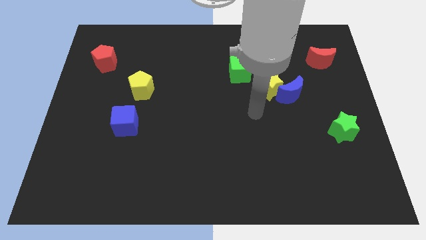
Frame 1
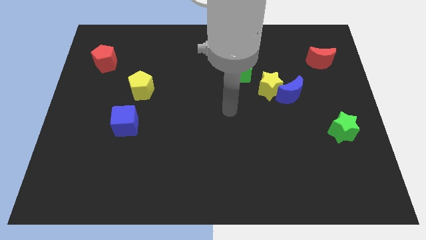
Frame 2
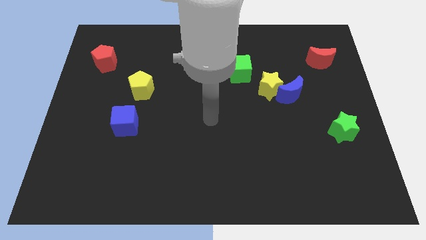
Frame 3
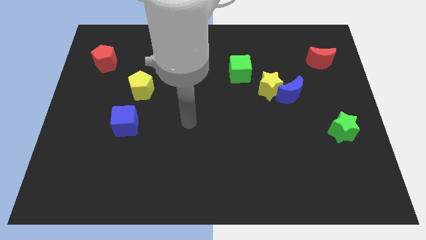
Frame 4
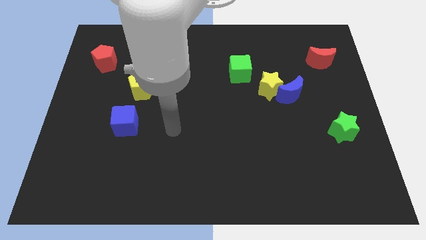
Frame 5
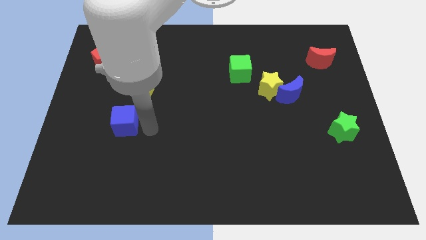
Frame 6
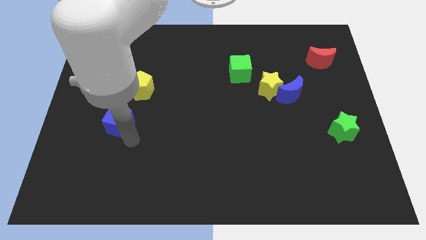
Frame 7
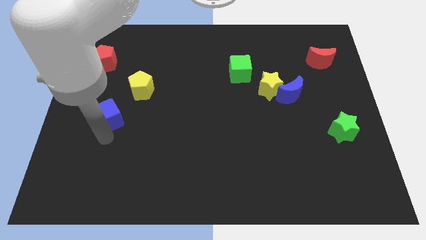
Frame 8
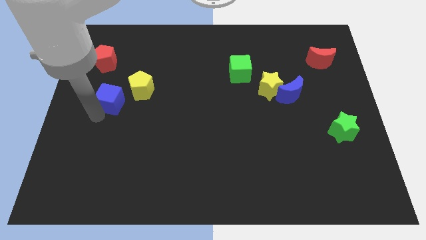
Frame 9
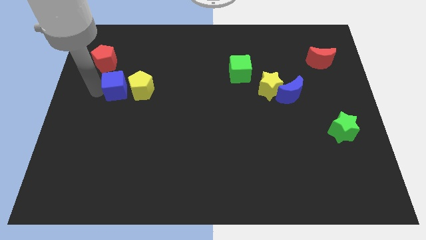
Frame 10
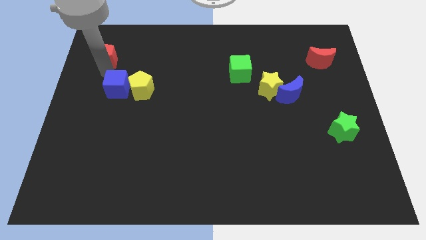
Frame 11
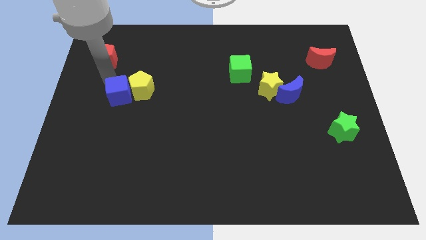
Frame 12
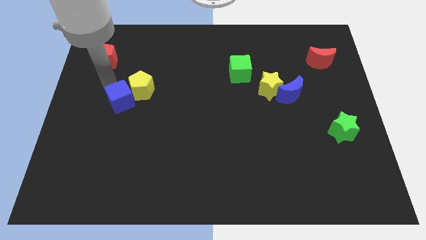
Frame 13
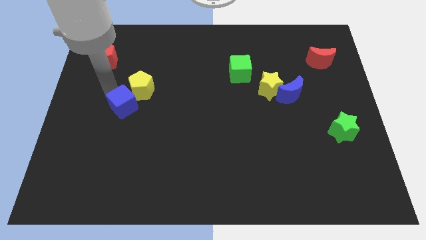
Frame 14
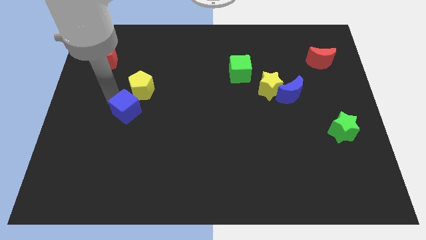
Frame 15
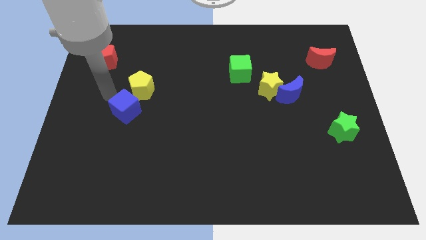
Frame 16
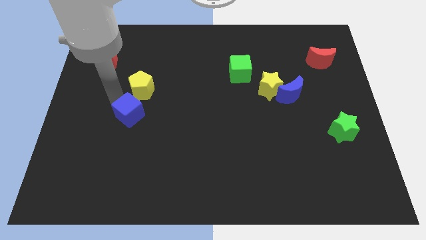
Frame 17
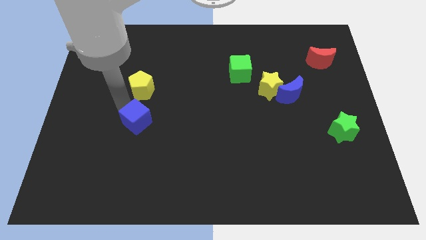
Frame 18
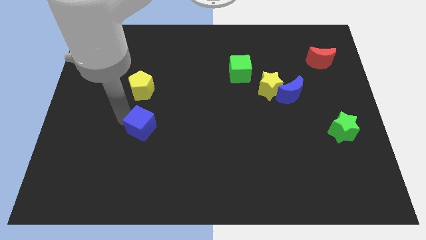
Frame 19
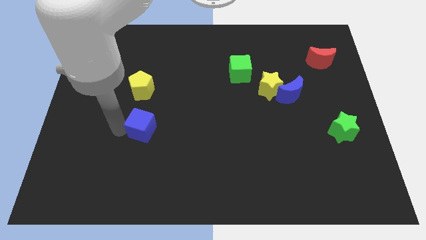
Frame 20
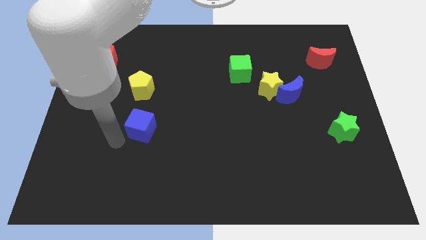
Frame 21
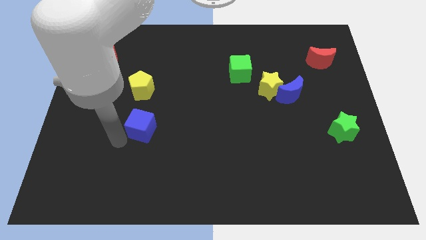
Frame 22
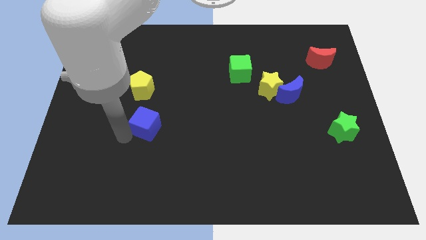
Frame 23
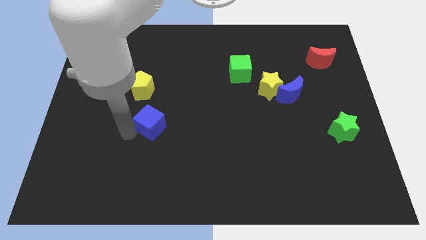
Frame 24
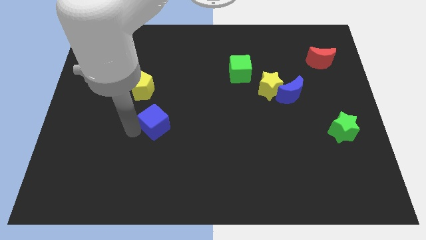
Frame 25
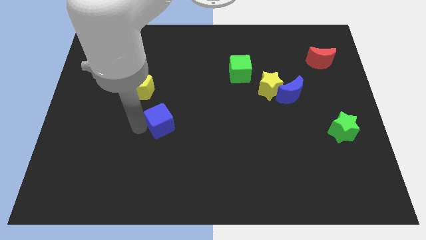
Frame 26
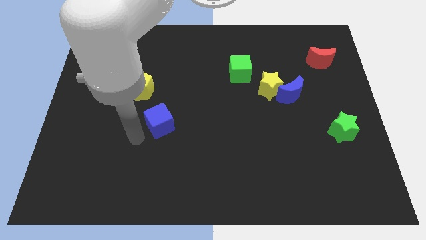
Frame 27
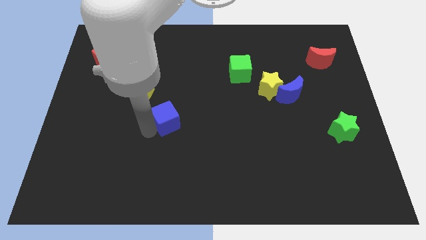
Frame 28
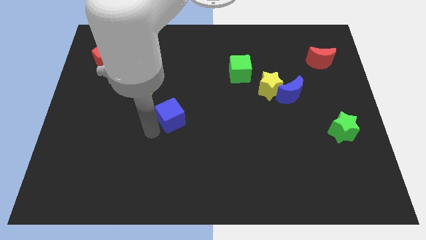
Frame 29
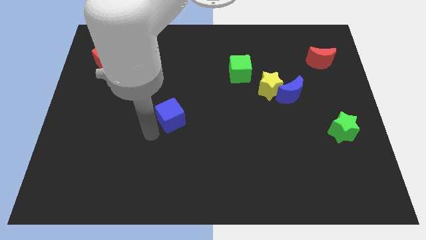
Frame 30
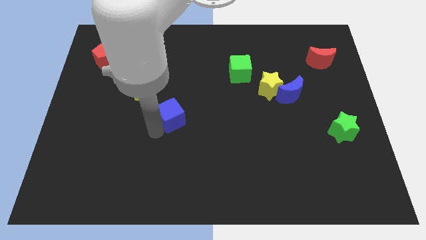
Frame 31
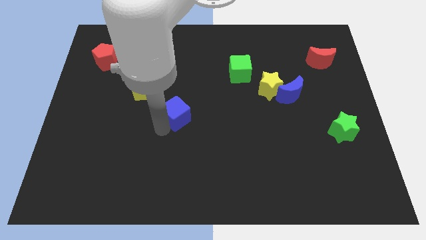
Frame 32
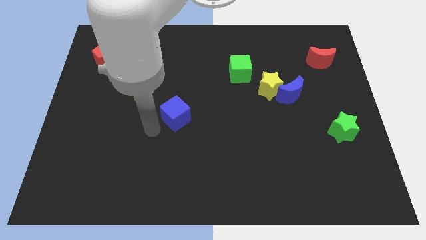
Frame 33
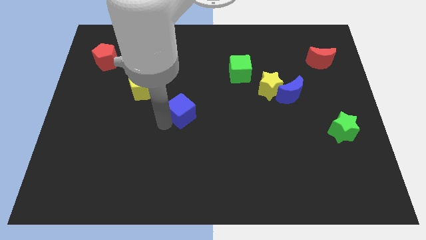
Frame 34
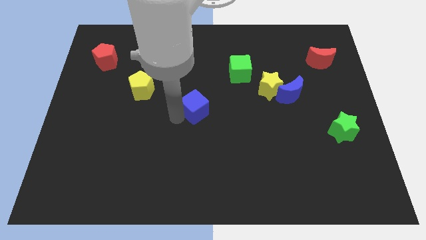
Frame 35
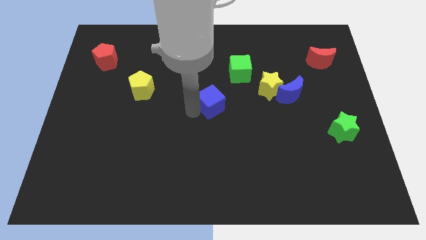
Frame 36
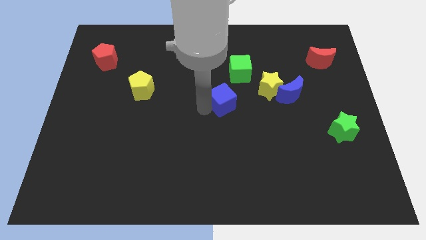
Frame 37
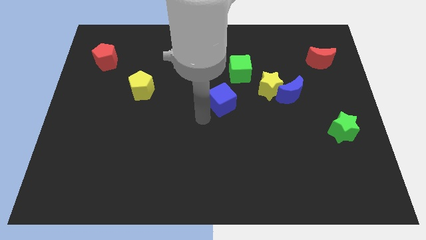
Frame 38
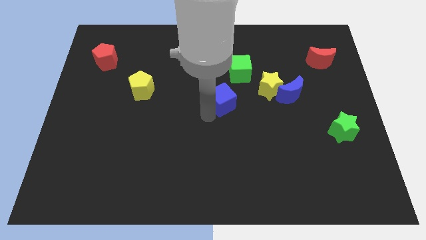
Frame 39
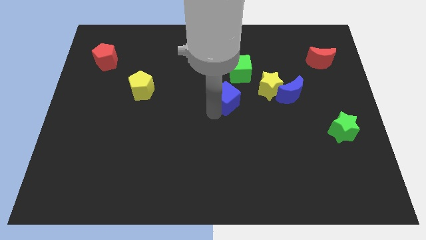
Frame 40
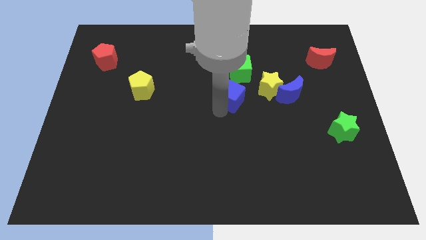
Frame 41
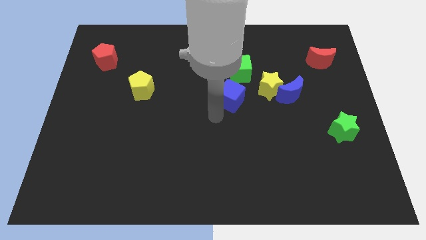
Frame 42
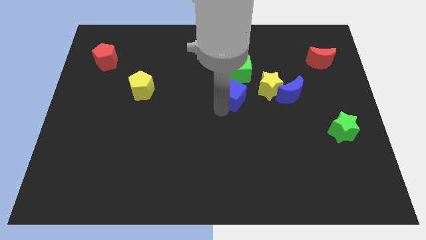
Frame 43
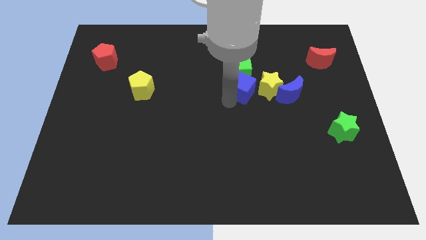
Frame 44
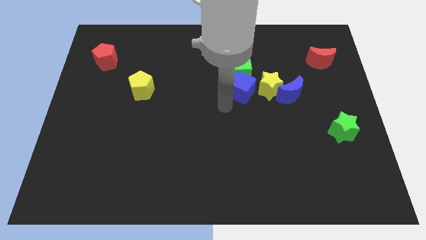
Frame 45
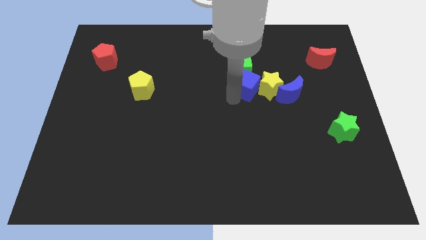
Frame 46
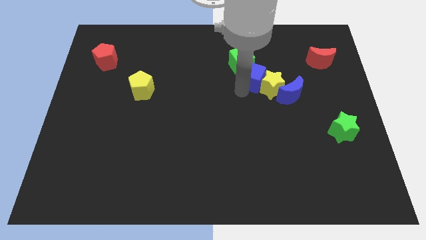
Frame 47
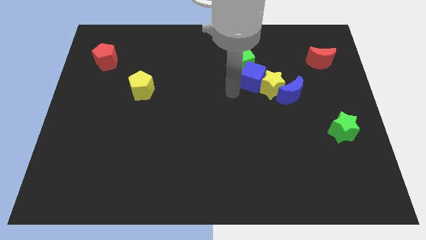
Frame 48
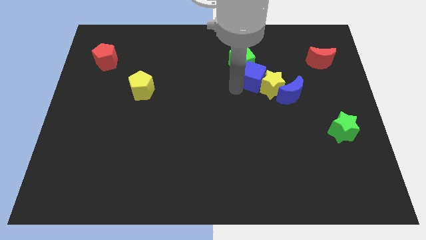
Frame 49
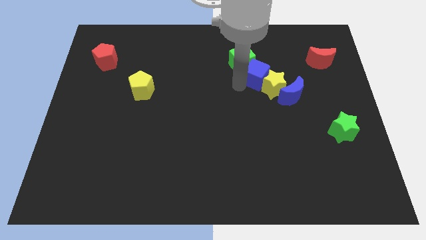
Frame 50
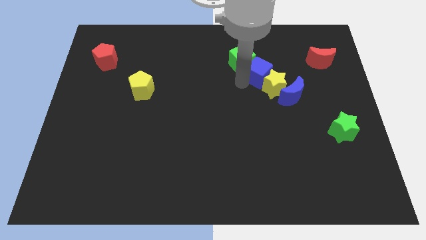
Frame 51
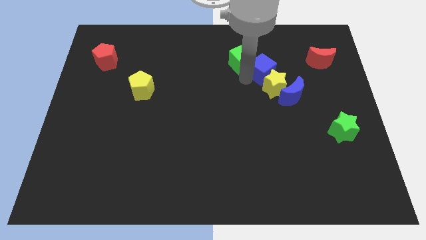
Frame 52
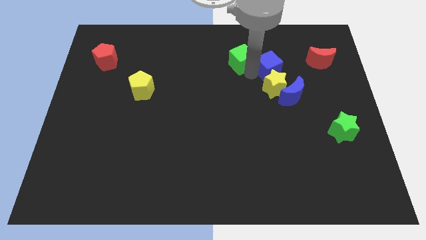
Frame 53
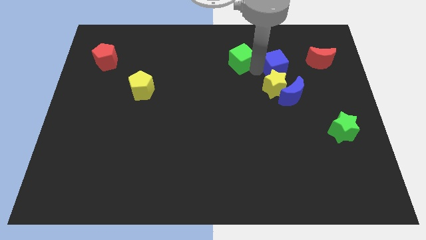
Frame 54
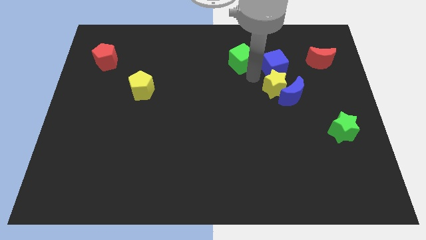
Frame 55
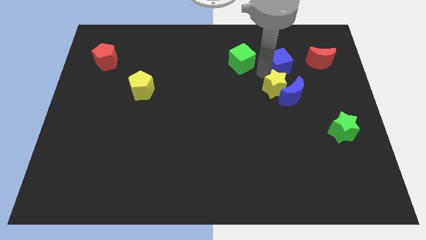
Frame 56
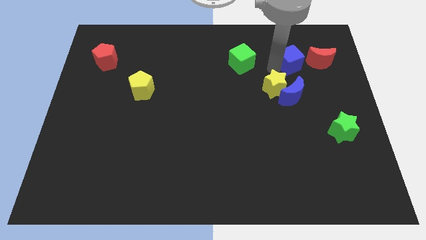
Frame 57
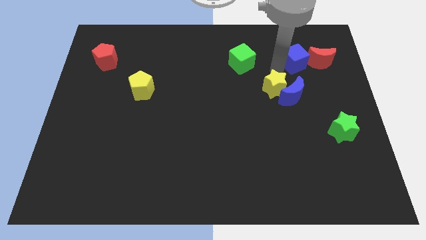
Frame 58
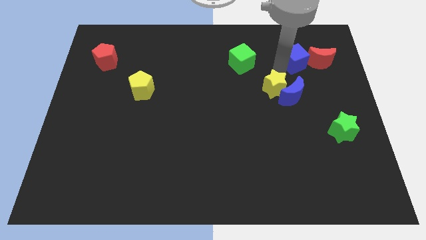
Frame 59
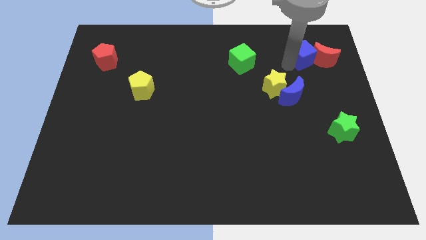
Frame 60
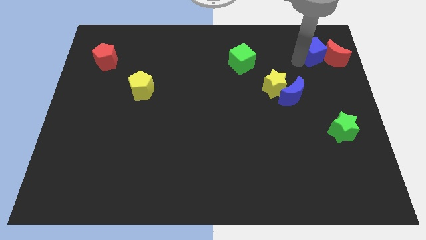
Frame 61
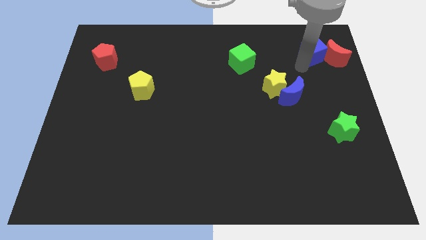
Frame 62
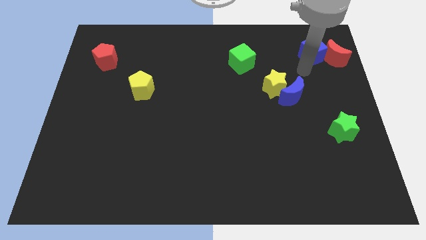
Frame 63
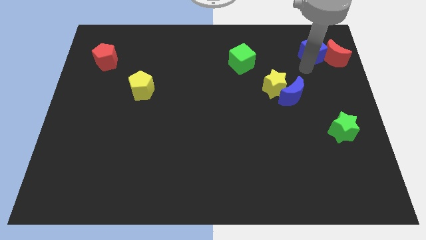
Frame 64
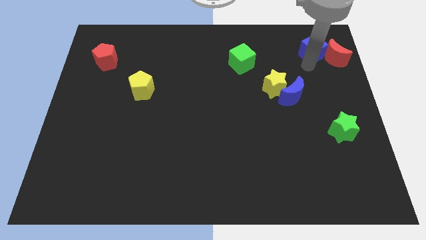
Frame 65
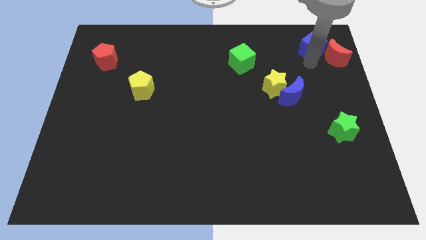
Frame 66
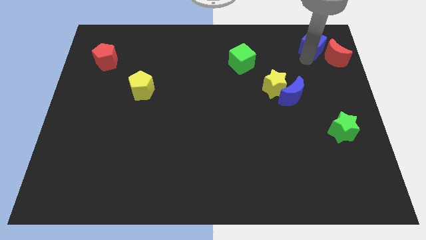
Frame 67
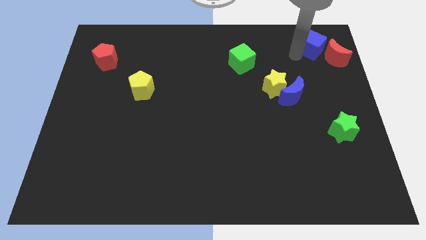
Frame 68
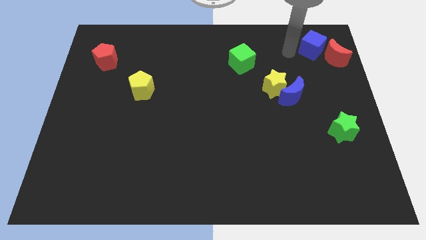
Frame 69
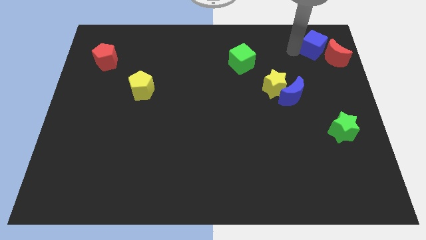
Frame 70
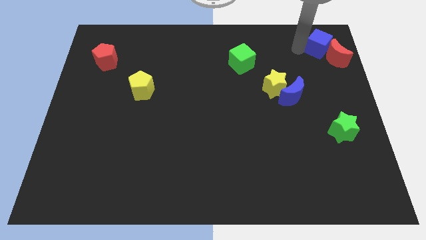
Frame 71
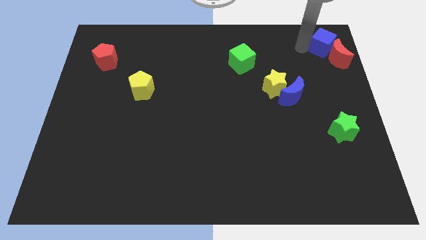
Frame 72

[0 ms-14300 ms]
move the blue cube to the top right corner
